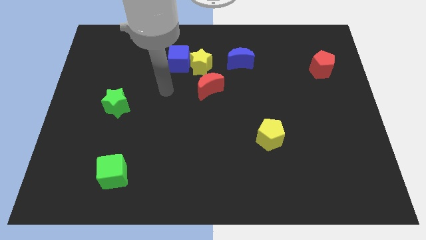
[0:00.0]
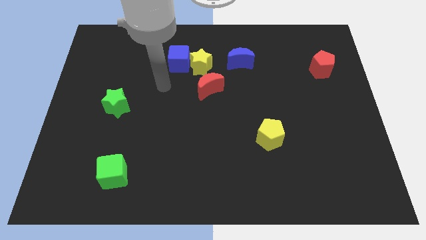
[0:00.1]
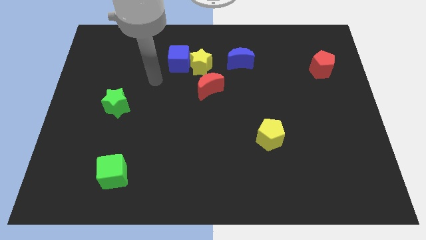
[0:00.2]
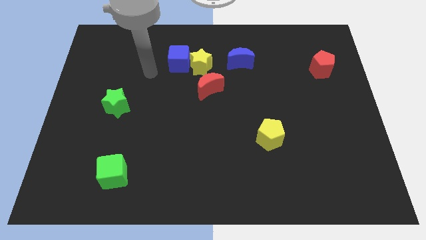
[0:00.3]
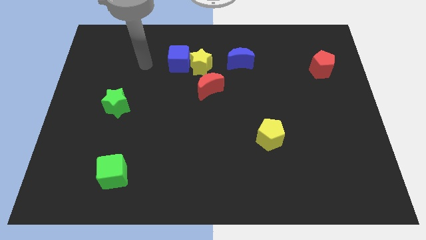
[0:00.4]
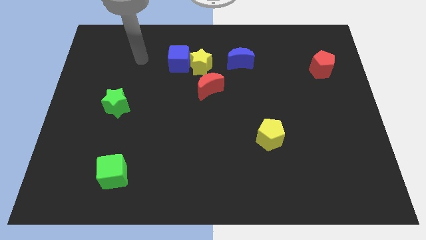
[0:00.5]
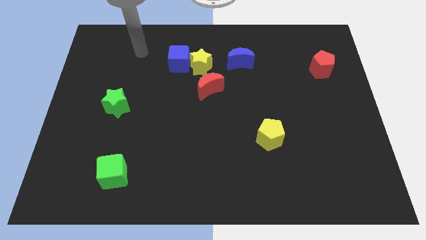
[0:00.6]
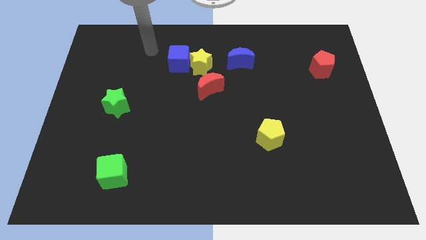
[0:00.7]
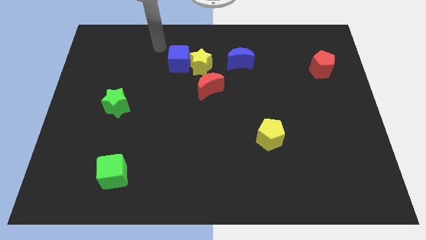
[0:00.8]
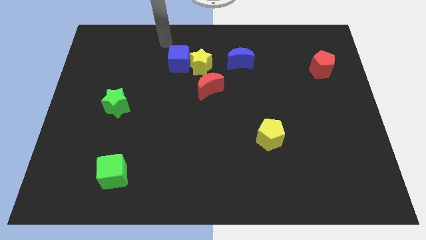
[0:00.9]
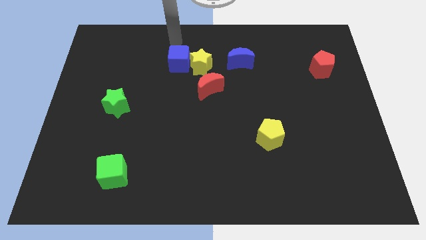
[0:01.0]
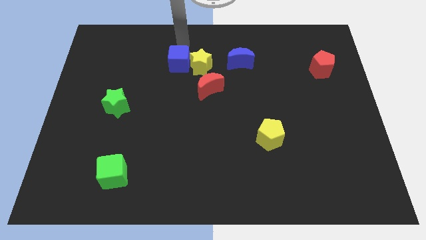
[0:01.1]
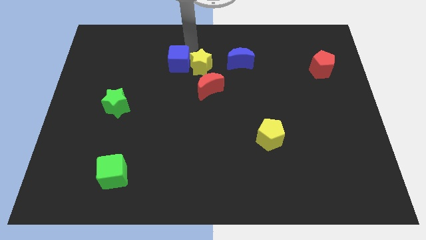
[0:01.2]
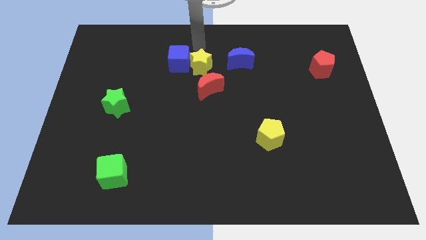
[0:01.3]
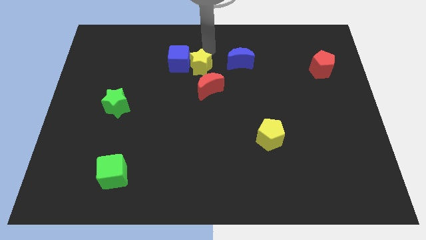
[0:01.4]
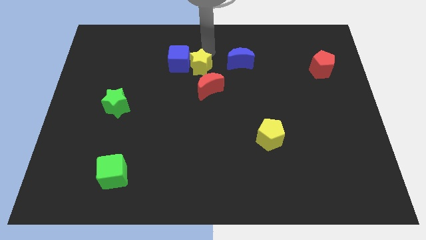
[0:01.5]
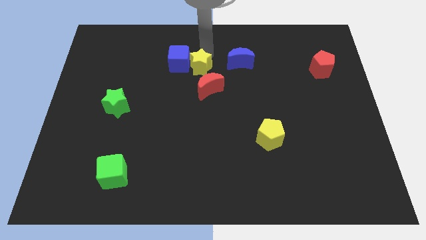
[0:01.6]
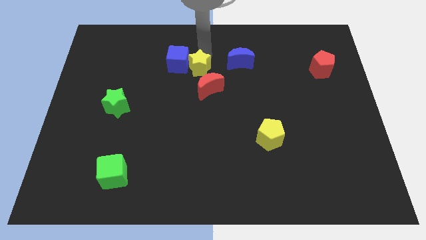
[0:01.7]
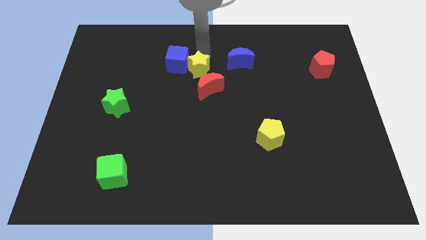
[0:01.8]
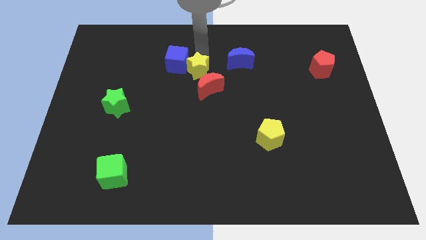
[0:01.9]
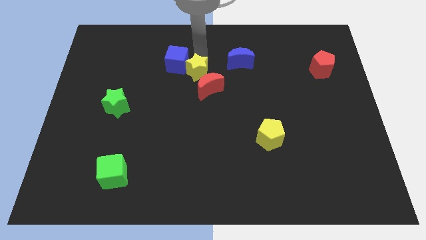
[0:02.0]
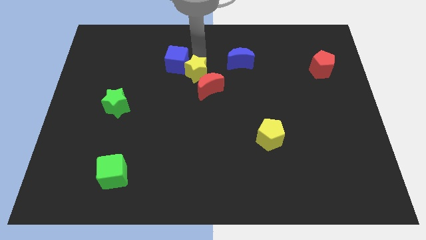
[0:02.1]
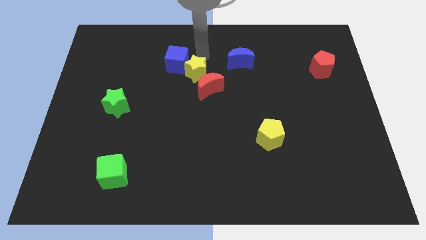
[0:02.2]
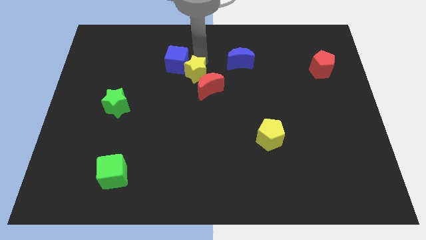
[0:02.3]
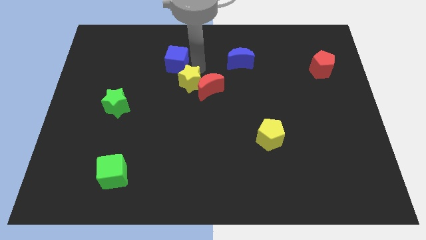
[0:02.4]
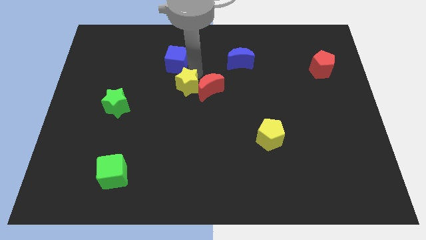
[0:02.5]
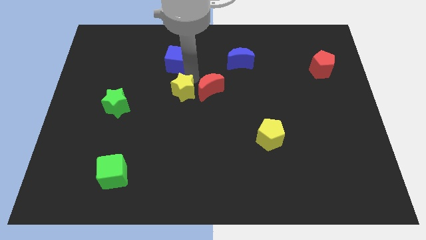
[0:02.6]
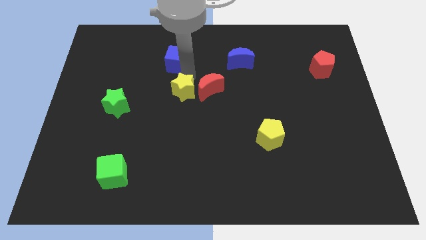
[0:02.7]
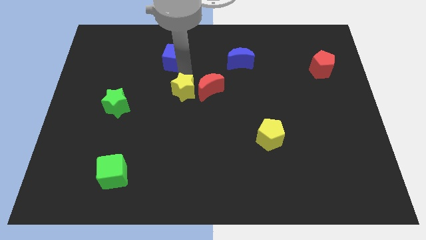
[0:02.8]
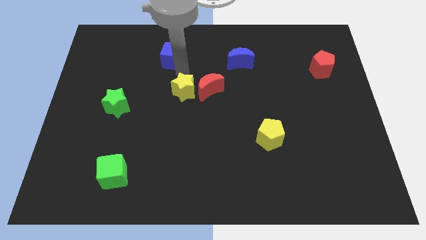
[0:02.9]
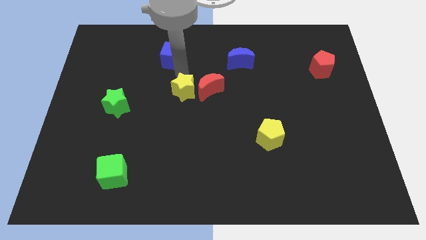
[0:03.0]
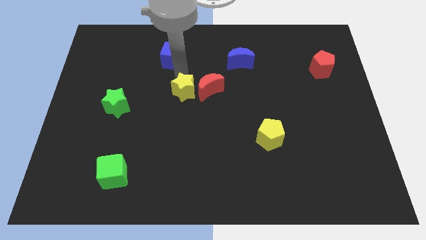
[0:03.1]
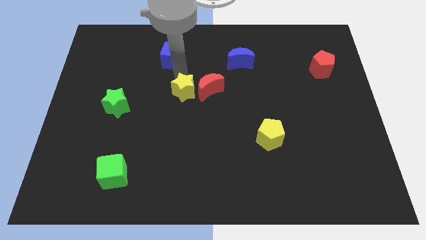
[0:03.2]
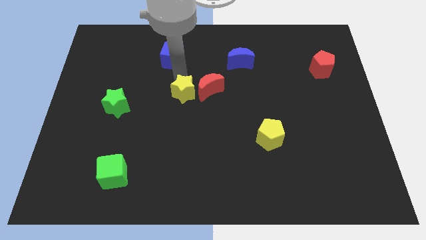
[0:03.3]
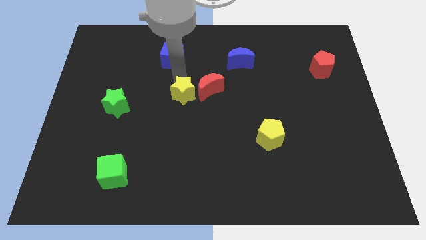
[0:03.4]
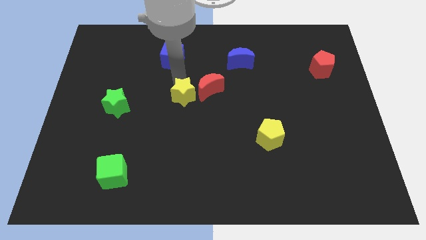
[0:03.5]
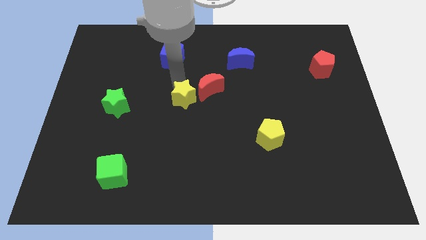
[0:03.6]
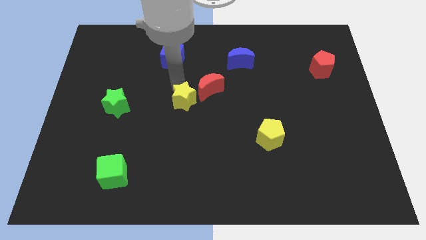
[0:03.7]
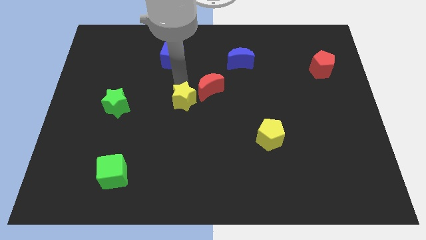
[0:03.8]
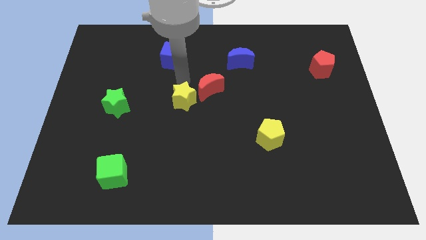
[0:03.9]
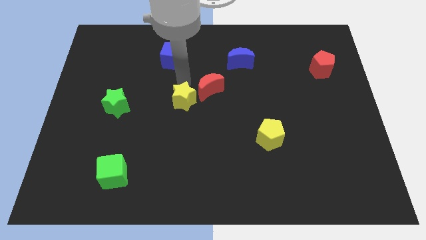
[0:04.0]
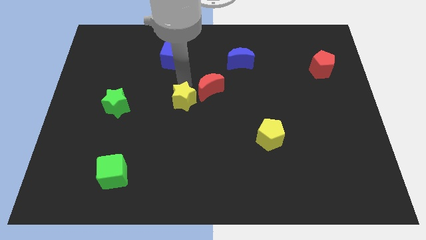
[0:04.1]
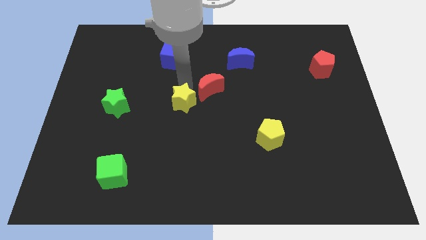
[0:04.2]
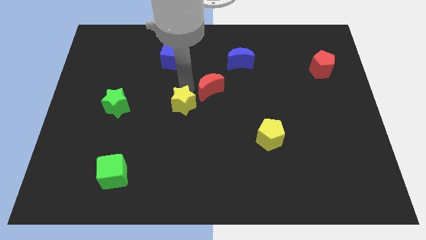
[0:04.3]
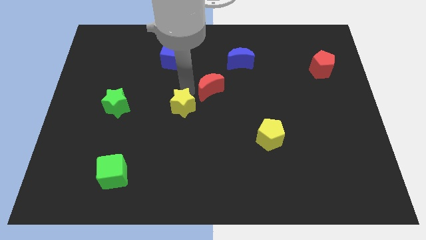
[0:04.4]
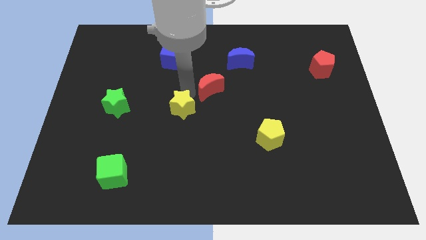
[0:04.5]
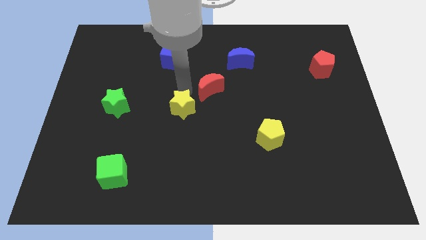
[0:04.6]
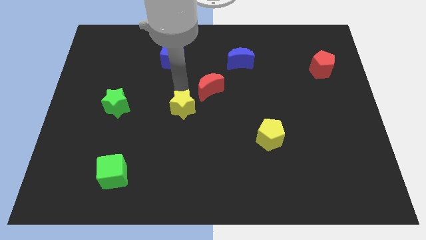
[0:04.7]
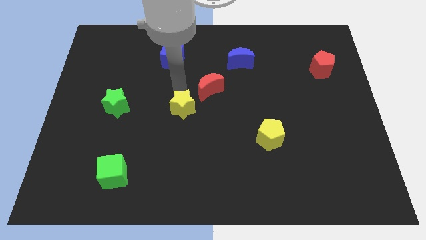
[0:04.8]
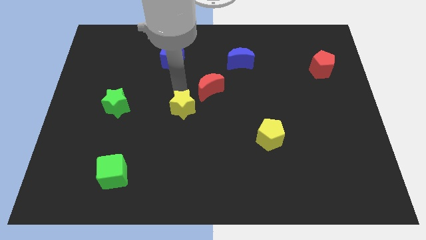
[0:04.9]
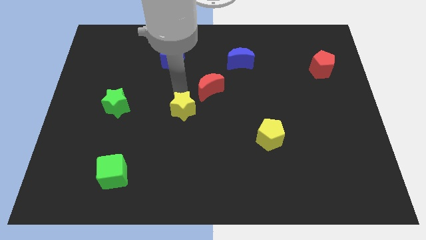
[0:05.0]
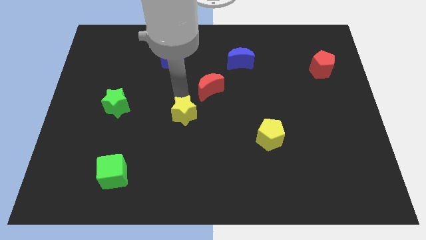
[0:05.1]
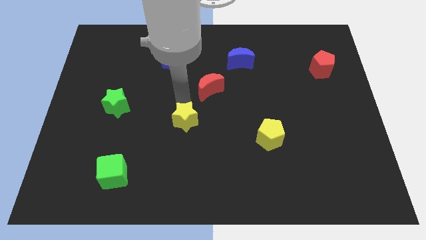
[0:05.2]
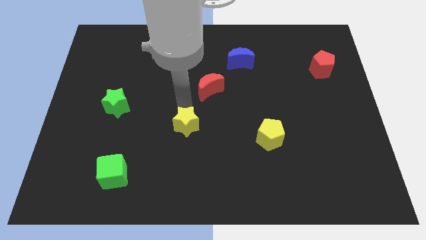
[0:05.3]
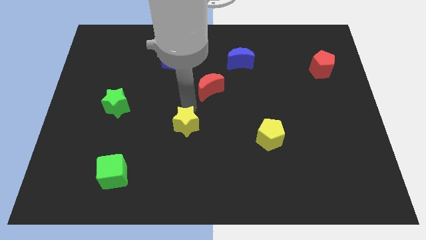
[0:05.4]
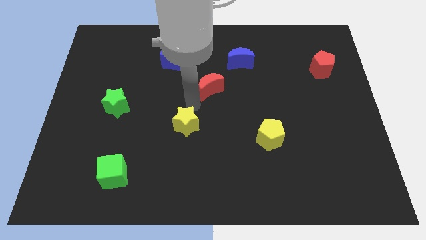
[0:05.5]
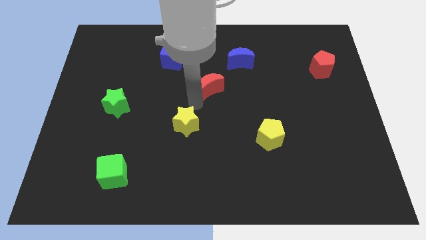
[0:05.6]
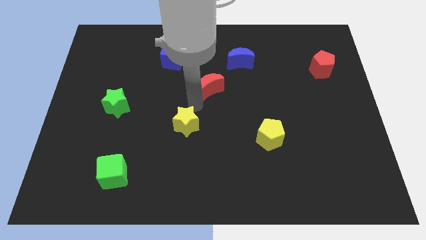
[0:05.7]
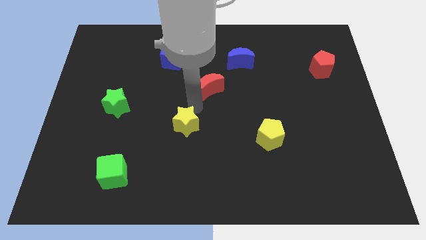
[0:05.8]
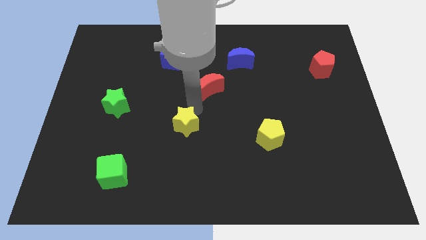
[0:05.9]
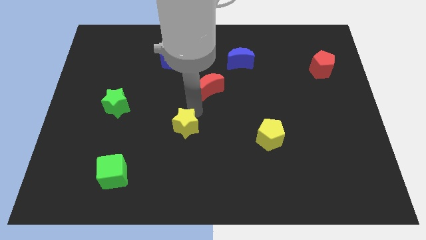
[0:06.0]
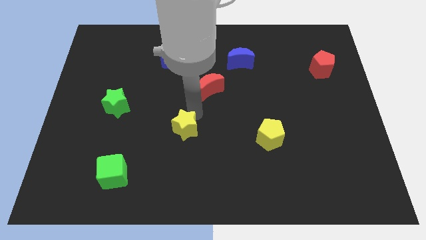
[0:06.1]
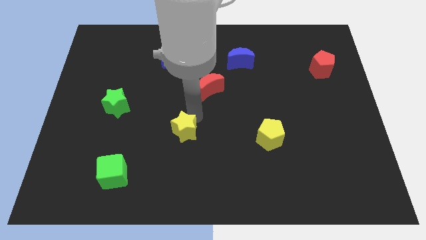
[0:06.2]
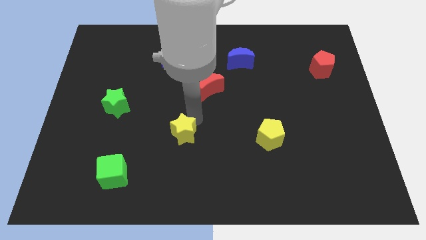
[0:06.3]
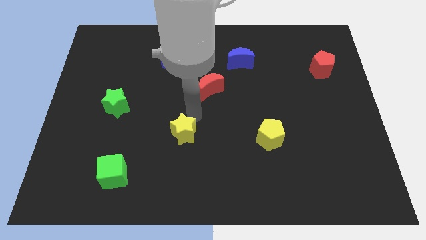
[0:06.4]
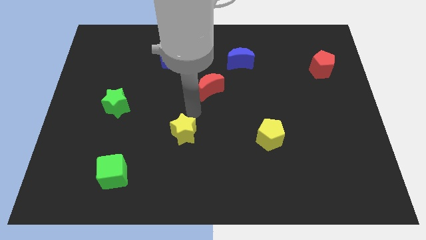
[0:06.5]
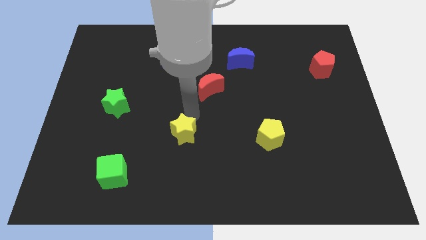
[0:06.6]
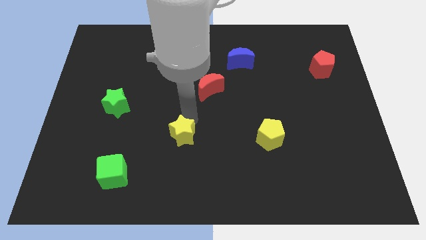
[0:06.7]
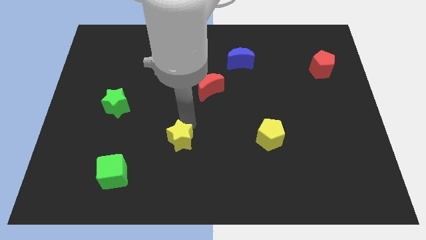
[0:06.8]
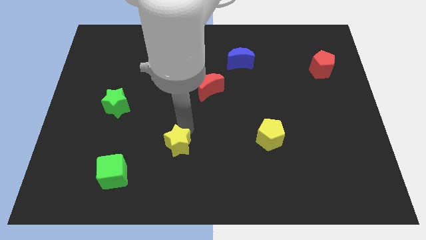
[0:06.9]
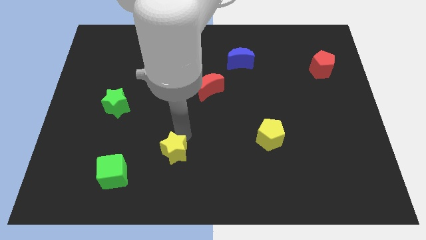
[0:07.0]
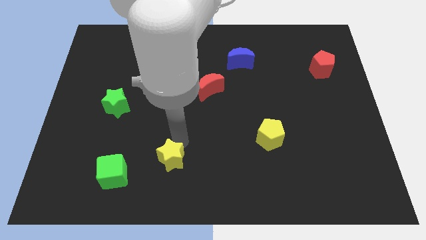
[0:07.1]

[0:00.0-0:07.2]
slide the yellow star to the right of the green cube
